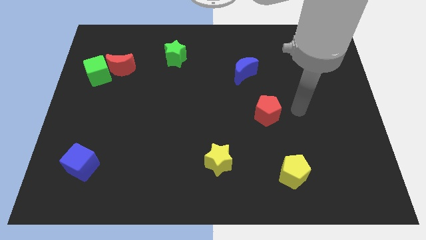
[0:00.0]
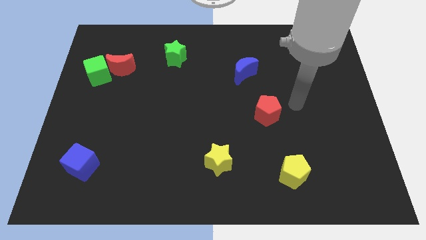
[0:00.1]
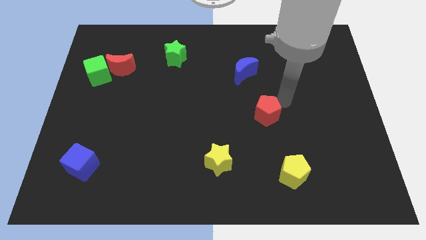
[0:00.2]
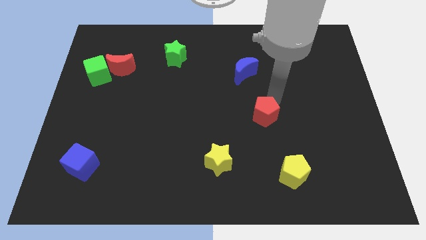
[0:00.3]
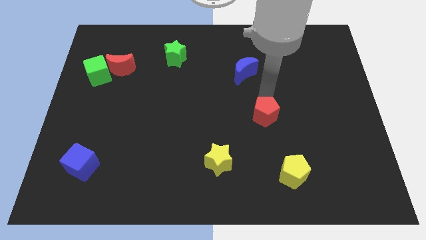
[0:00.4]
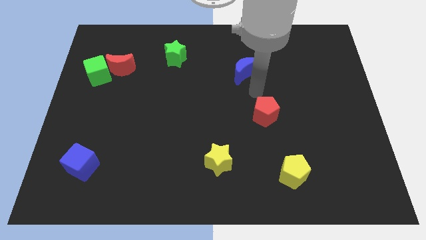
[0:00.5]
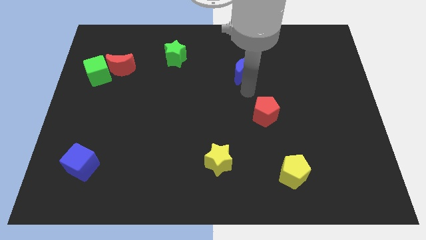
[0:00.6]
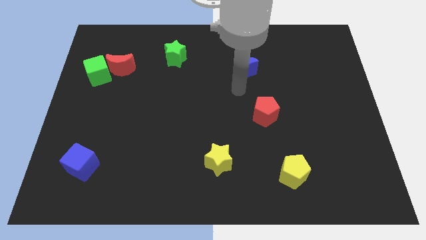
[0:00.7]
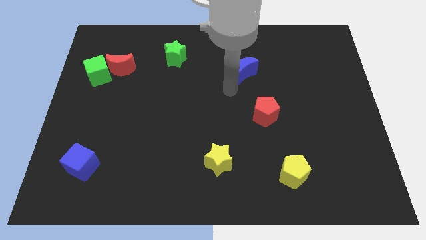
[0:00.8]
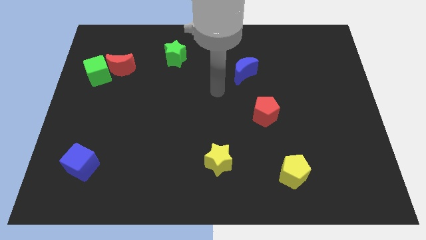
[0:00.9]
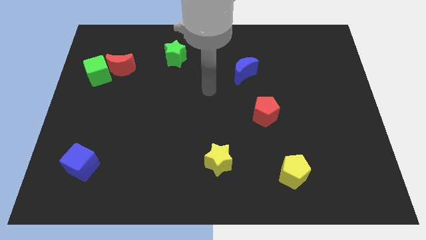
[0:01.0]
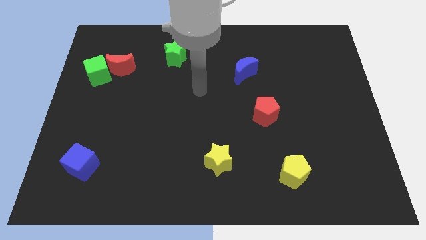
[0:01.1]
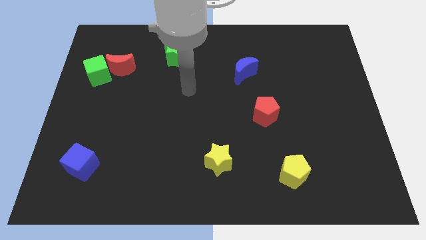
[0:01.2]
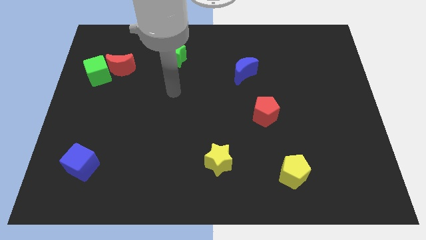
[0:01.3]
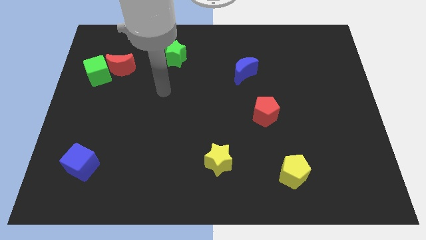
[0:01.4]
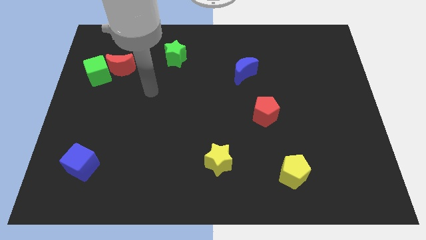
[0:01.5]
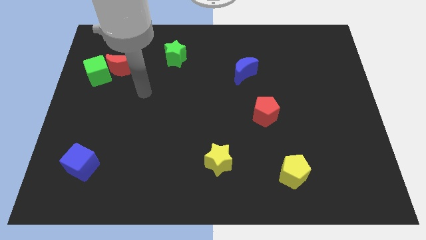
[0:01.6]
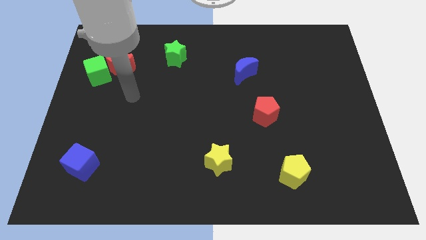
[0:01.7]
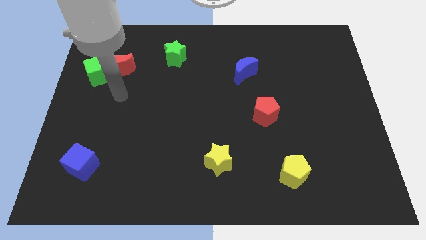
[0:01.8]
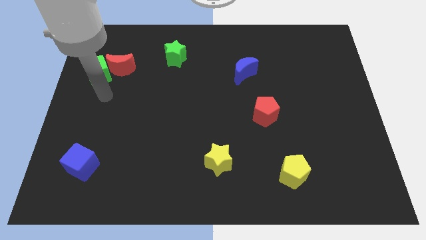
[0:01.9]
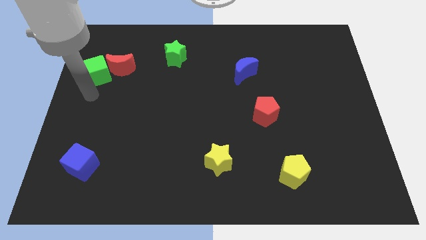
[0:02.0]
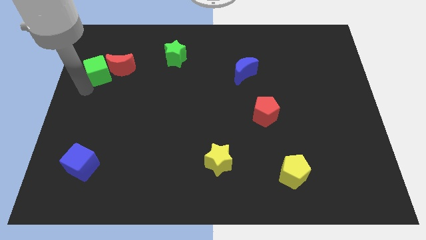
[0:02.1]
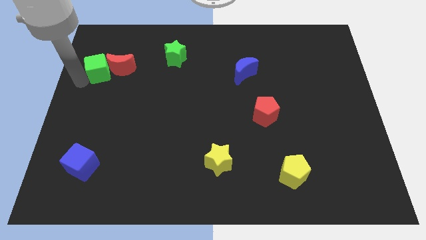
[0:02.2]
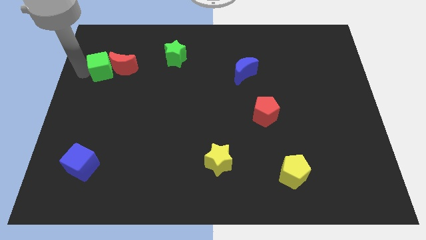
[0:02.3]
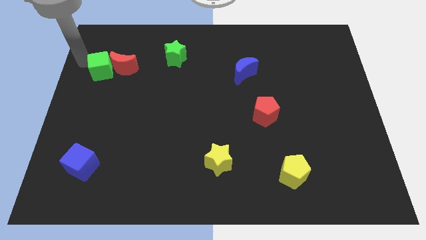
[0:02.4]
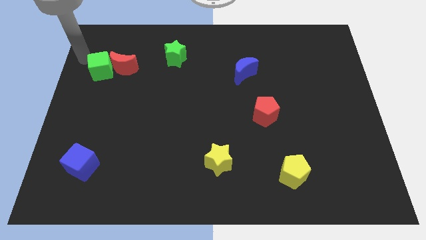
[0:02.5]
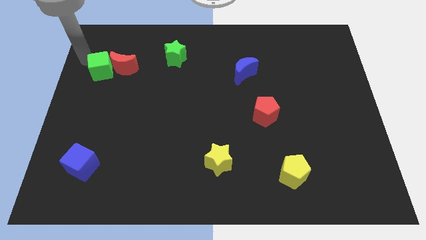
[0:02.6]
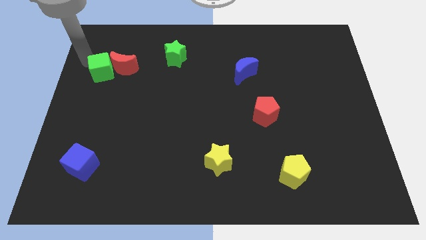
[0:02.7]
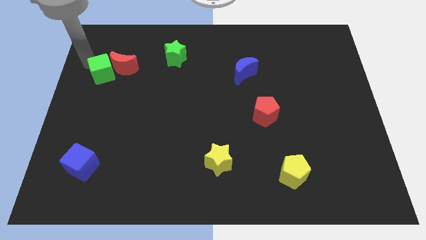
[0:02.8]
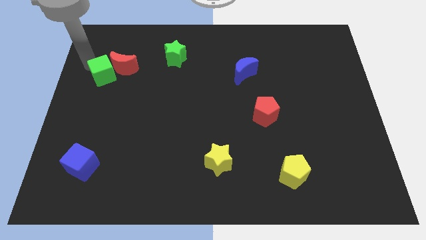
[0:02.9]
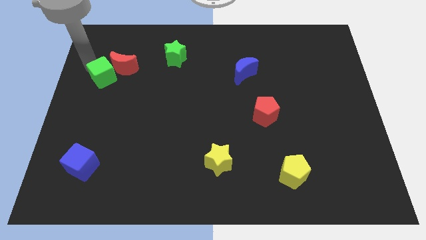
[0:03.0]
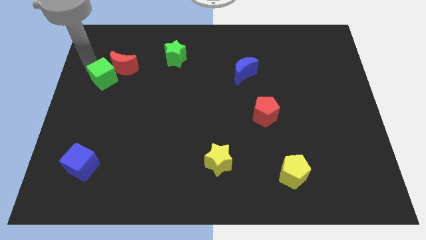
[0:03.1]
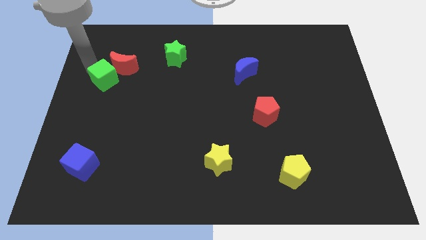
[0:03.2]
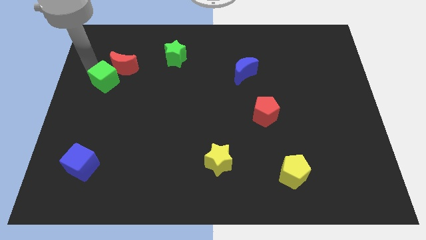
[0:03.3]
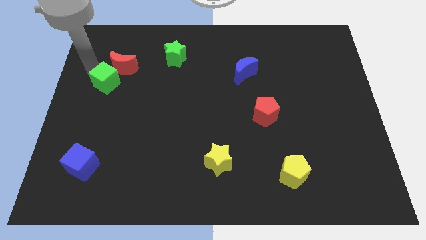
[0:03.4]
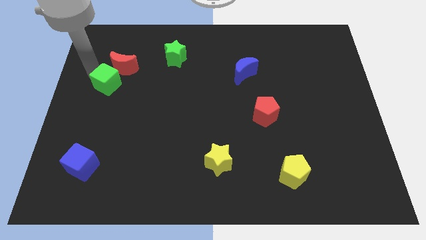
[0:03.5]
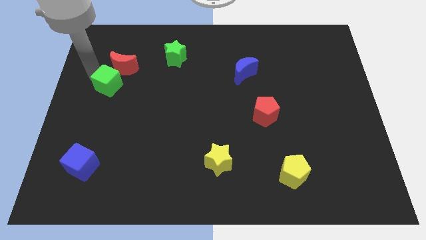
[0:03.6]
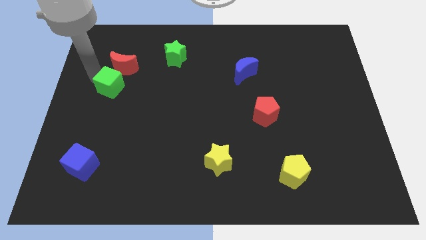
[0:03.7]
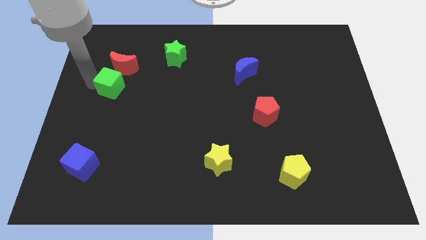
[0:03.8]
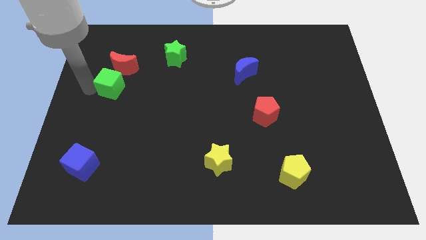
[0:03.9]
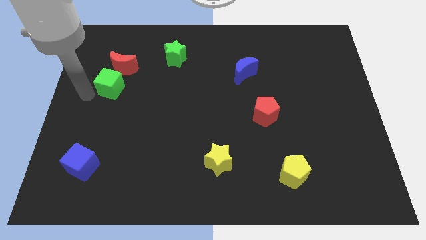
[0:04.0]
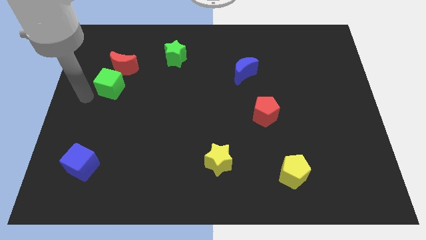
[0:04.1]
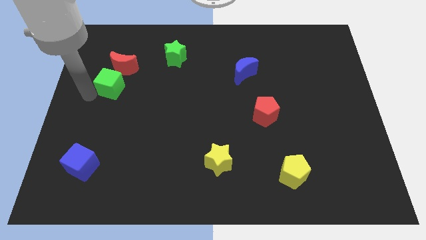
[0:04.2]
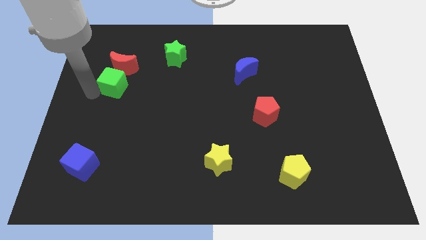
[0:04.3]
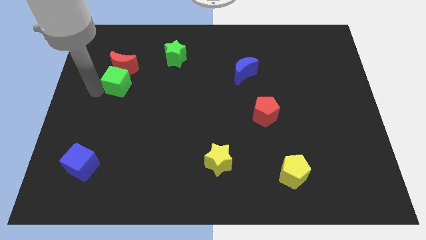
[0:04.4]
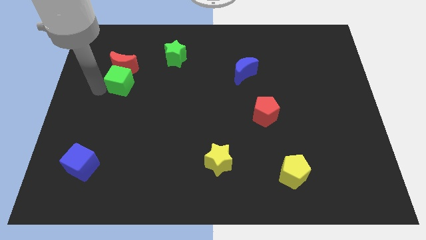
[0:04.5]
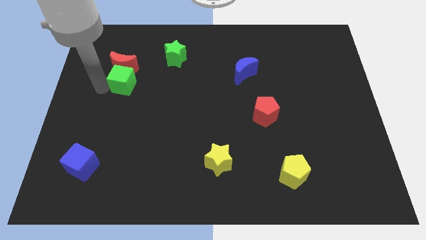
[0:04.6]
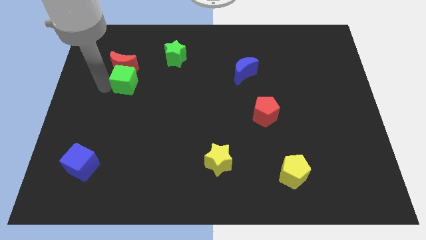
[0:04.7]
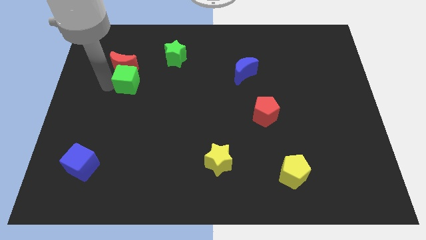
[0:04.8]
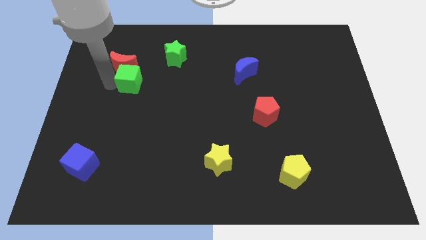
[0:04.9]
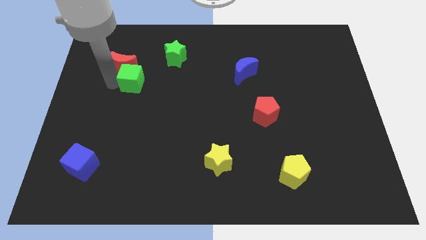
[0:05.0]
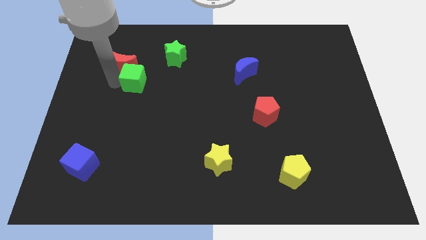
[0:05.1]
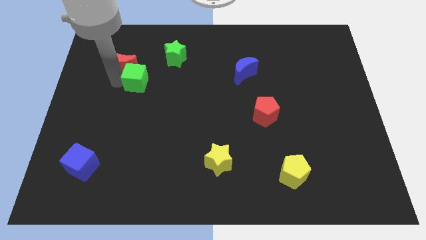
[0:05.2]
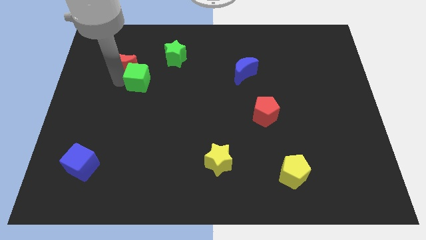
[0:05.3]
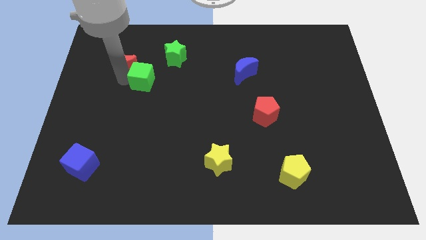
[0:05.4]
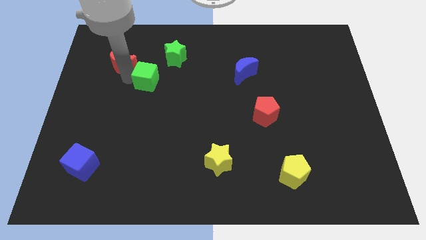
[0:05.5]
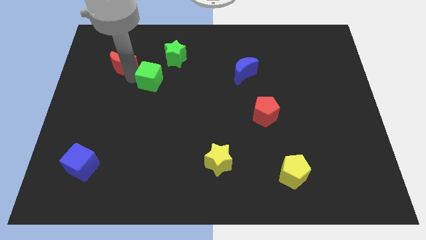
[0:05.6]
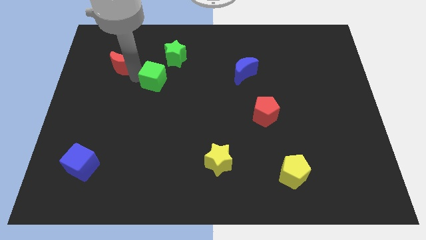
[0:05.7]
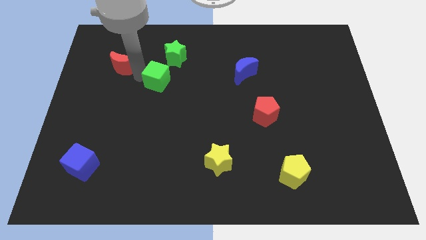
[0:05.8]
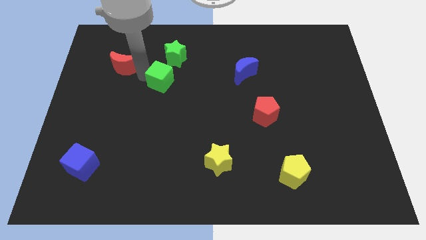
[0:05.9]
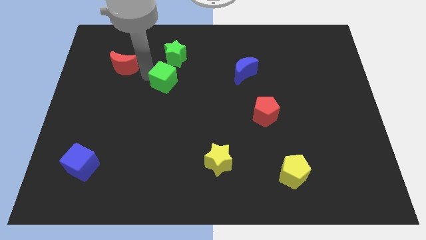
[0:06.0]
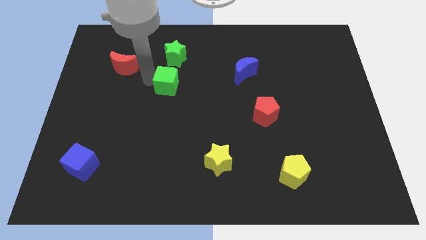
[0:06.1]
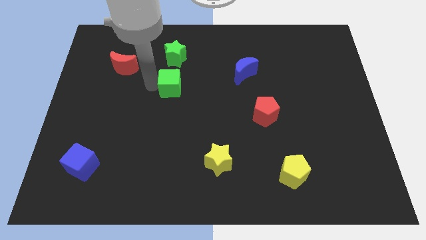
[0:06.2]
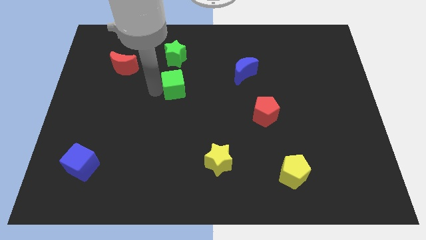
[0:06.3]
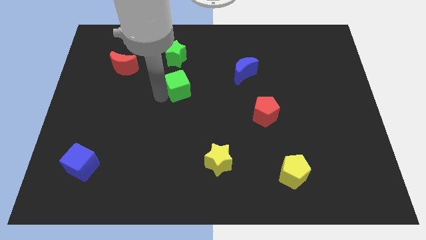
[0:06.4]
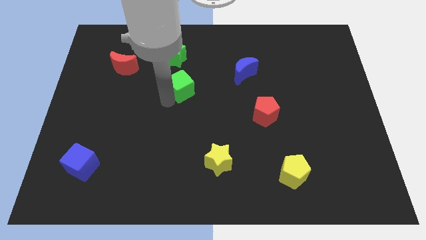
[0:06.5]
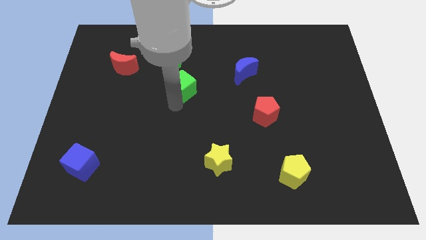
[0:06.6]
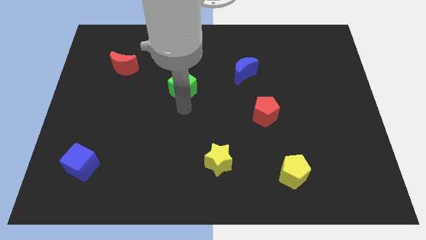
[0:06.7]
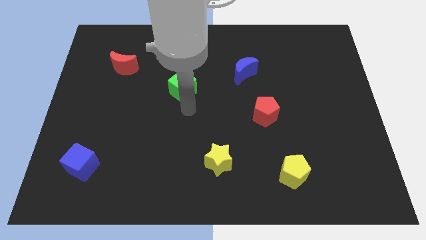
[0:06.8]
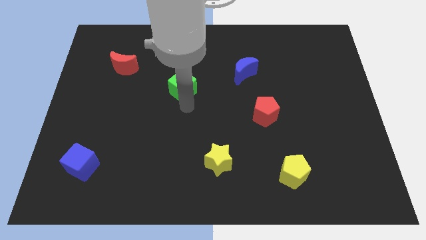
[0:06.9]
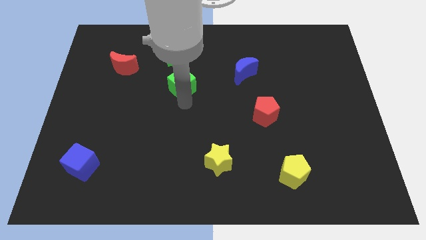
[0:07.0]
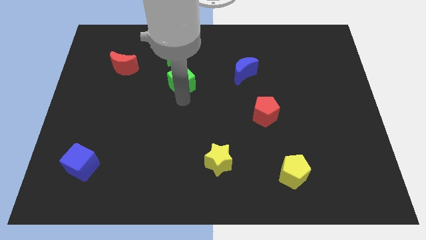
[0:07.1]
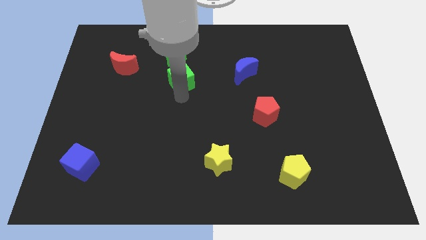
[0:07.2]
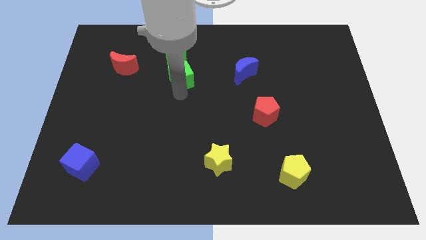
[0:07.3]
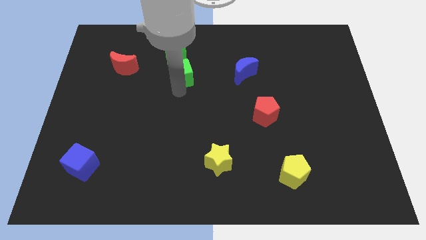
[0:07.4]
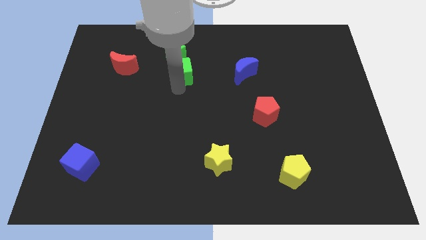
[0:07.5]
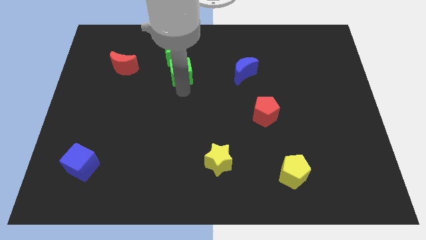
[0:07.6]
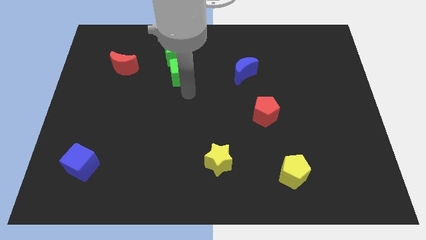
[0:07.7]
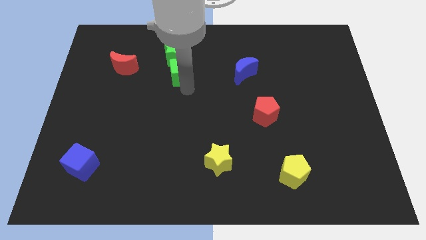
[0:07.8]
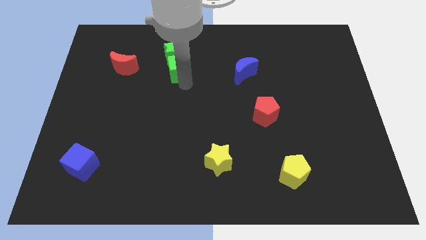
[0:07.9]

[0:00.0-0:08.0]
slide the green cube to the green star
